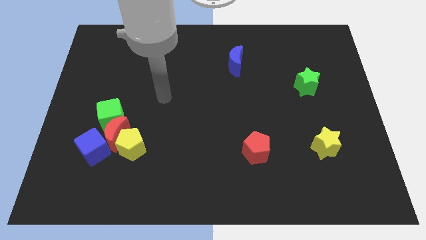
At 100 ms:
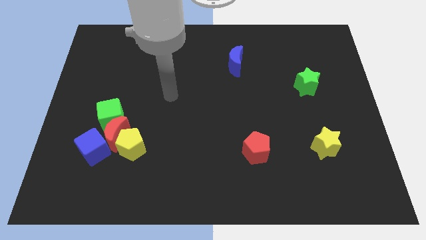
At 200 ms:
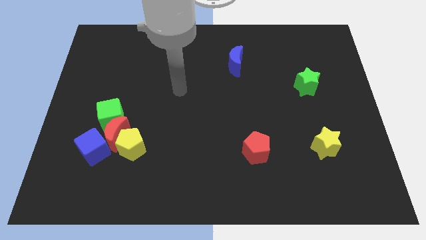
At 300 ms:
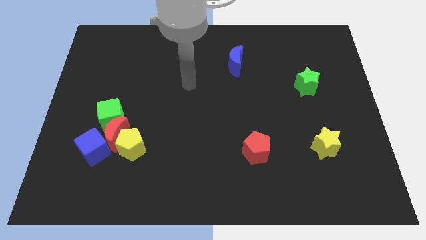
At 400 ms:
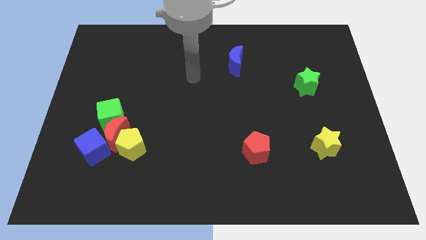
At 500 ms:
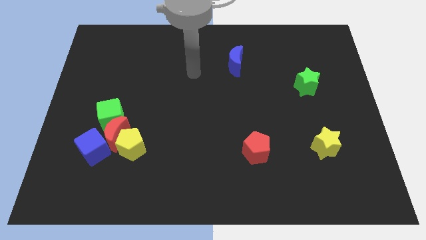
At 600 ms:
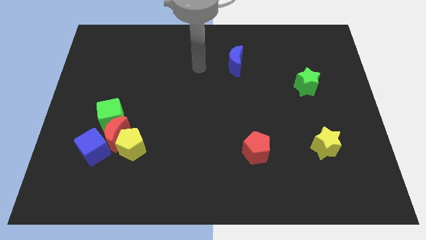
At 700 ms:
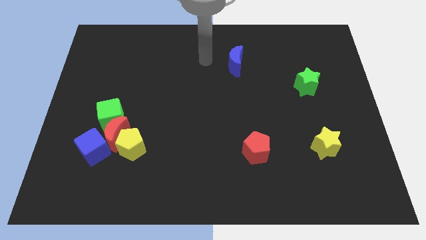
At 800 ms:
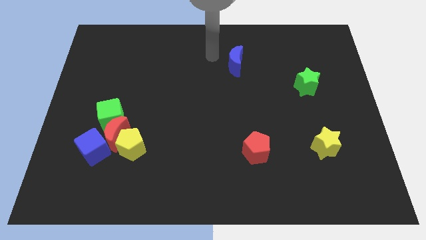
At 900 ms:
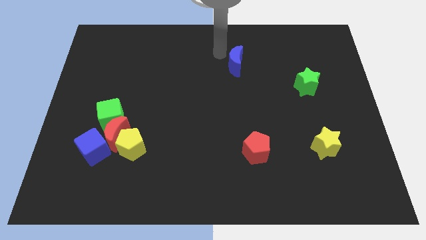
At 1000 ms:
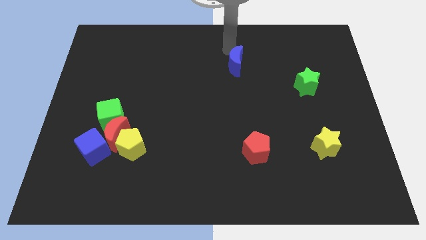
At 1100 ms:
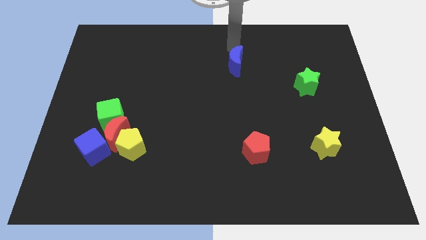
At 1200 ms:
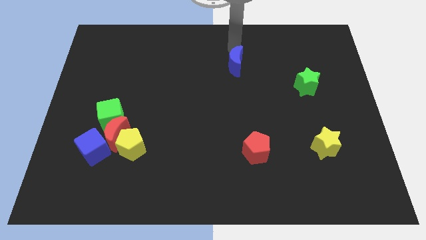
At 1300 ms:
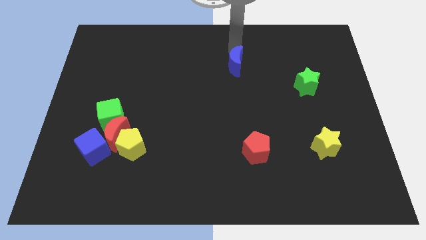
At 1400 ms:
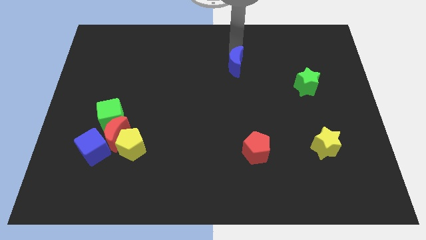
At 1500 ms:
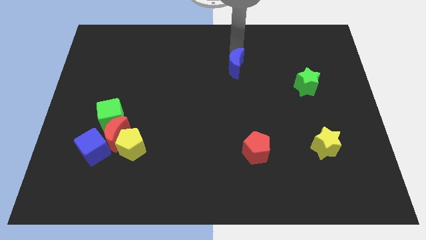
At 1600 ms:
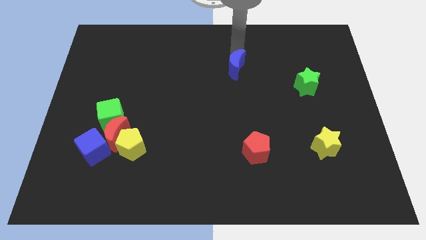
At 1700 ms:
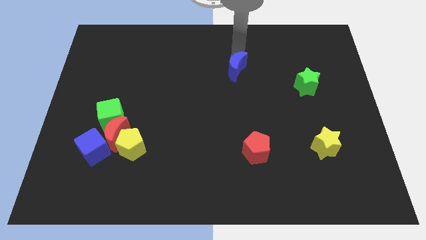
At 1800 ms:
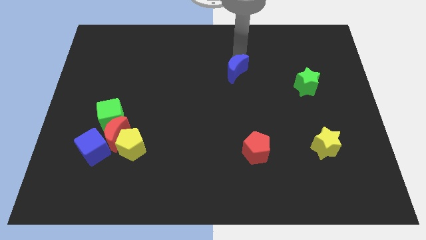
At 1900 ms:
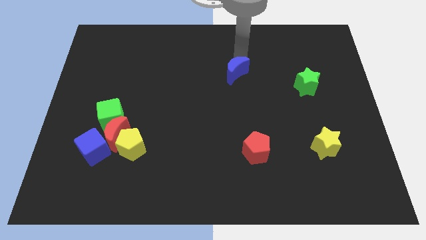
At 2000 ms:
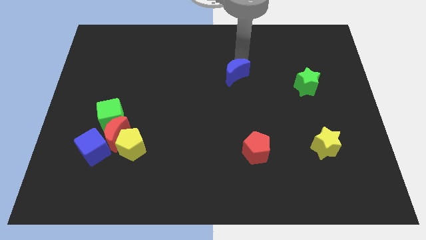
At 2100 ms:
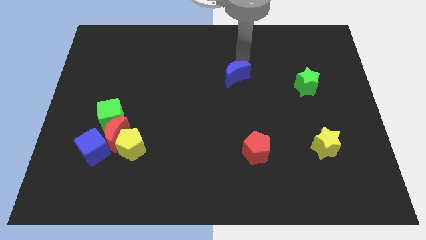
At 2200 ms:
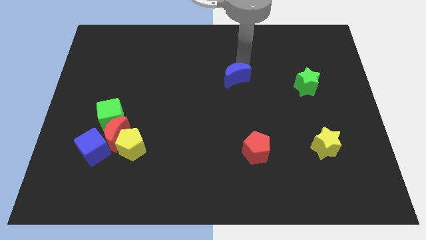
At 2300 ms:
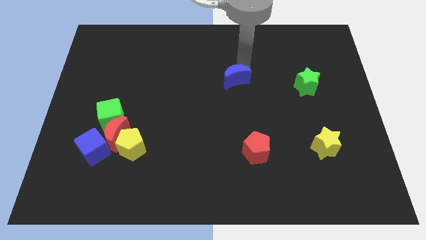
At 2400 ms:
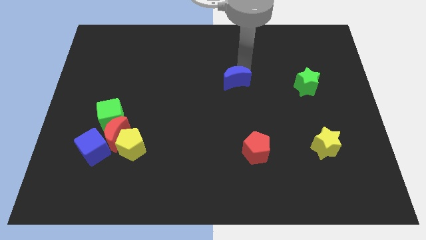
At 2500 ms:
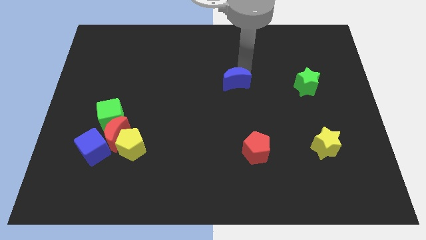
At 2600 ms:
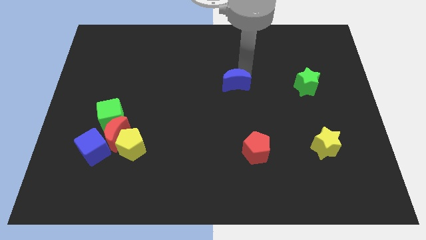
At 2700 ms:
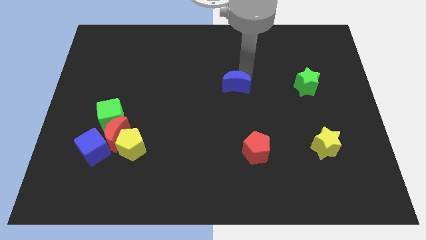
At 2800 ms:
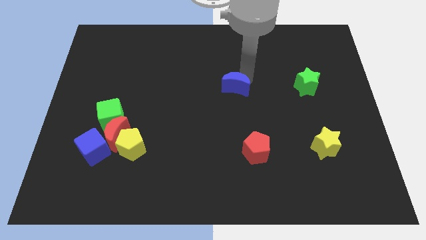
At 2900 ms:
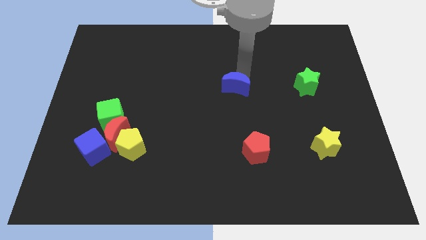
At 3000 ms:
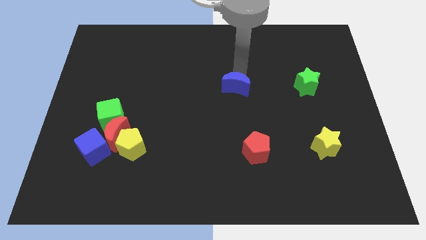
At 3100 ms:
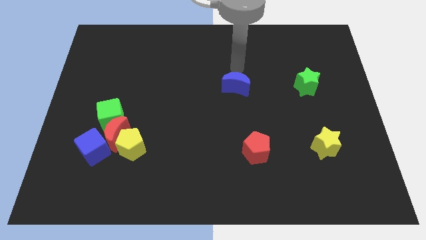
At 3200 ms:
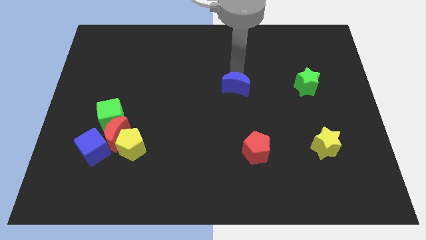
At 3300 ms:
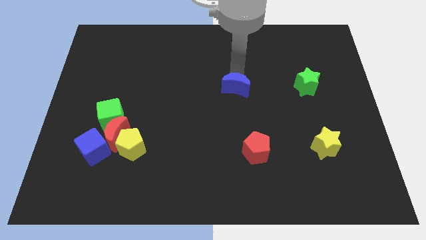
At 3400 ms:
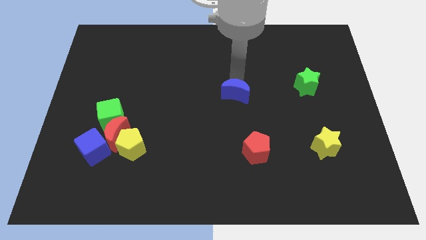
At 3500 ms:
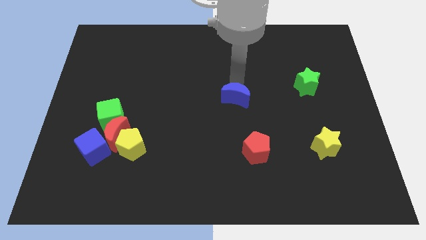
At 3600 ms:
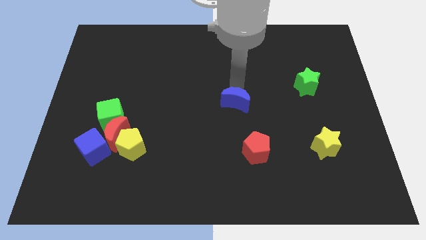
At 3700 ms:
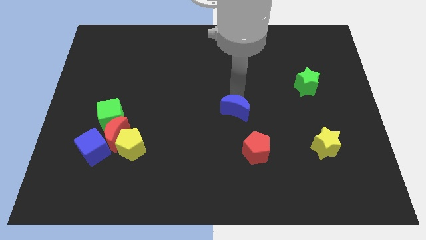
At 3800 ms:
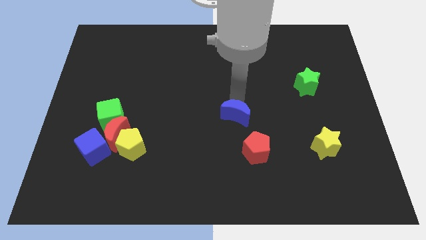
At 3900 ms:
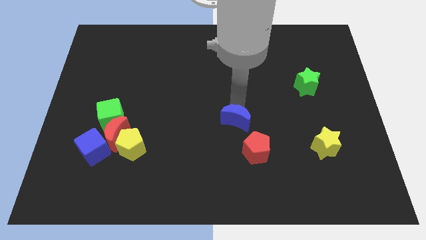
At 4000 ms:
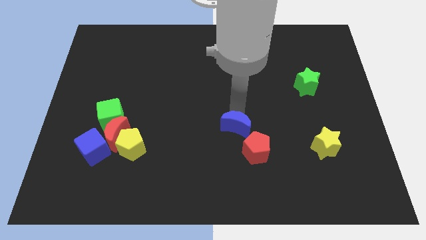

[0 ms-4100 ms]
move the blue moon downwards

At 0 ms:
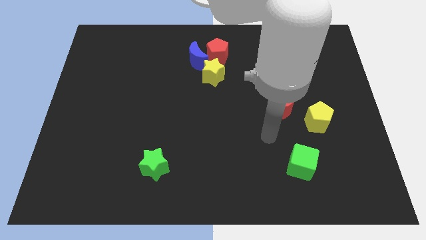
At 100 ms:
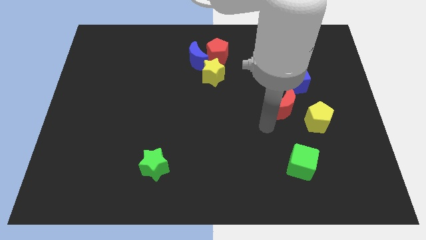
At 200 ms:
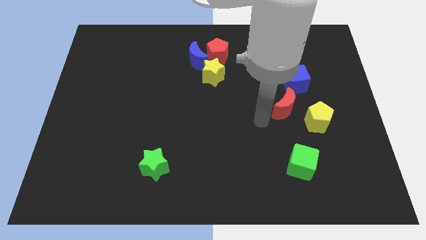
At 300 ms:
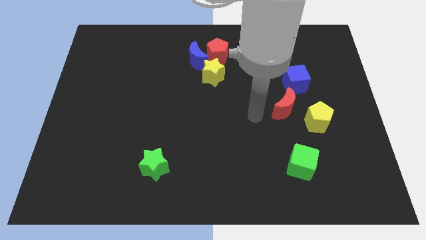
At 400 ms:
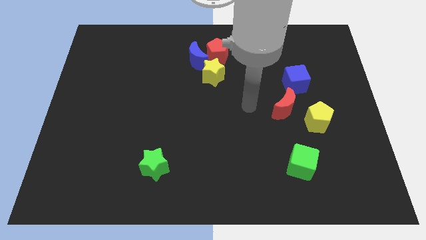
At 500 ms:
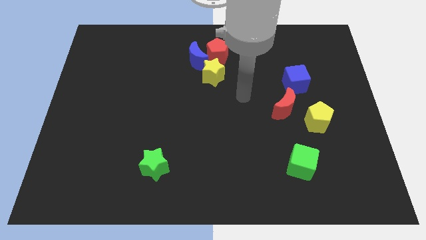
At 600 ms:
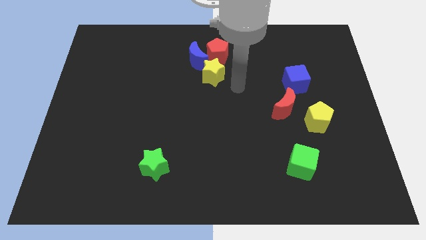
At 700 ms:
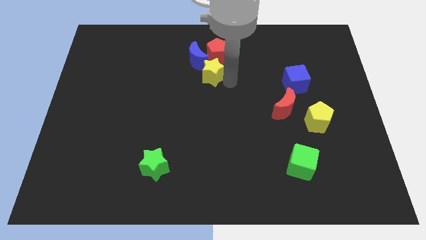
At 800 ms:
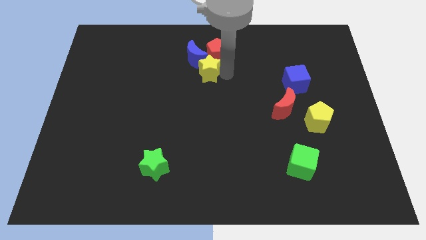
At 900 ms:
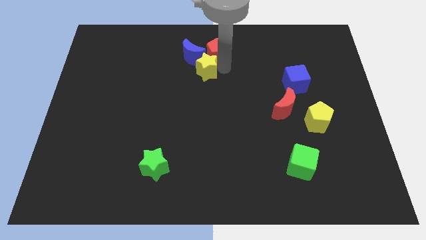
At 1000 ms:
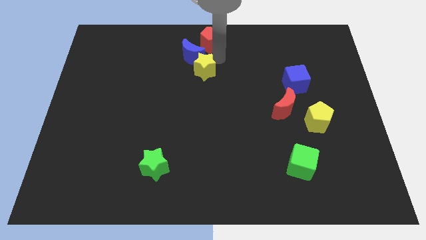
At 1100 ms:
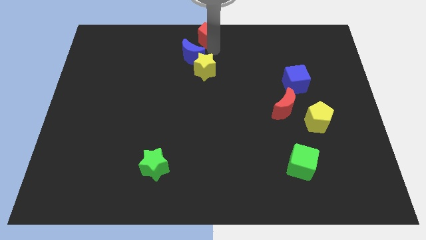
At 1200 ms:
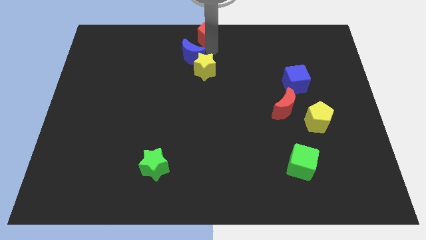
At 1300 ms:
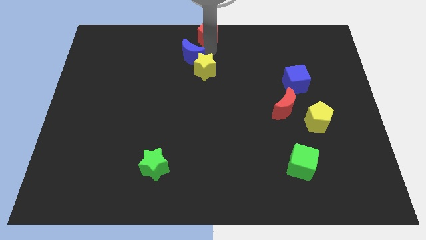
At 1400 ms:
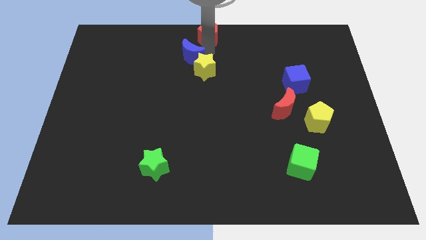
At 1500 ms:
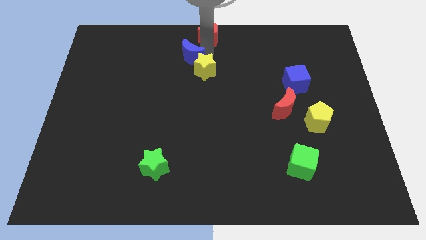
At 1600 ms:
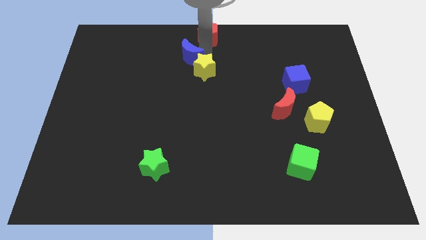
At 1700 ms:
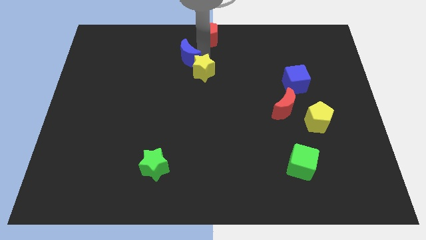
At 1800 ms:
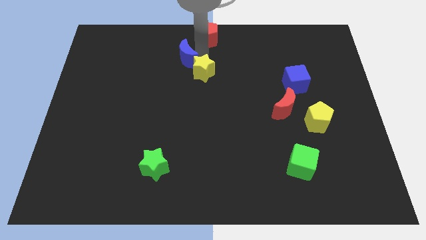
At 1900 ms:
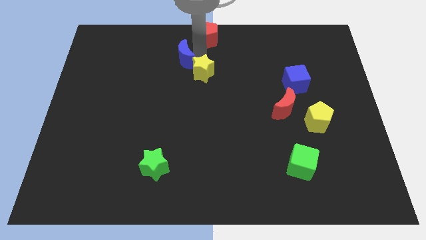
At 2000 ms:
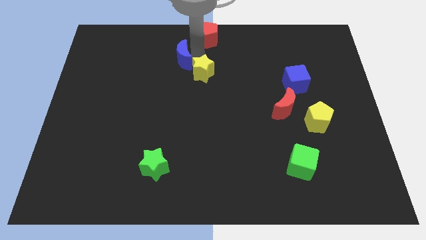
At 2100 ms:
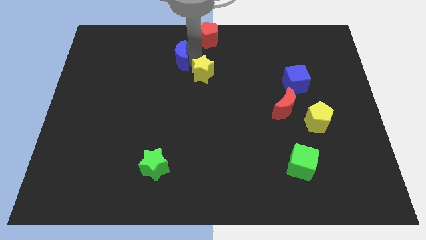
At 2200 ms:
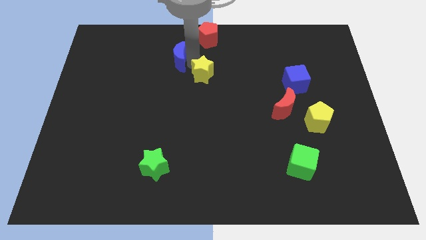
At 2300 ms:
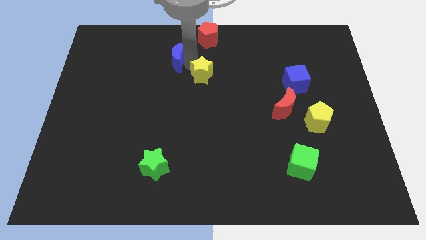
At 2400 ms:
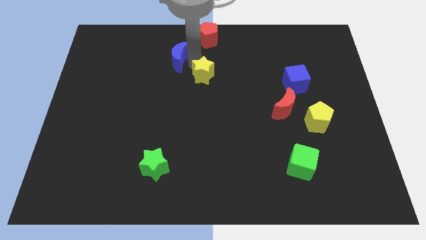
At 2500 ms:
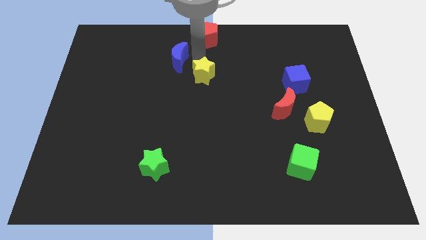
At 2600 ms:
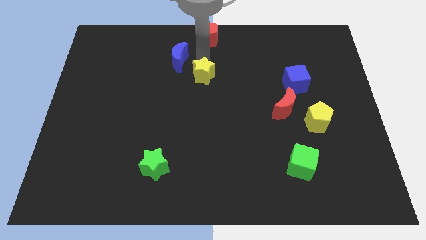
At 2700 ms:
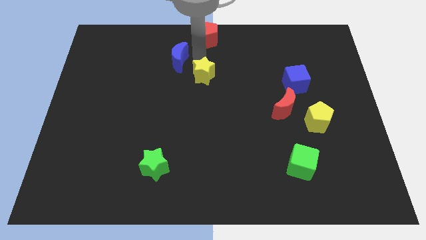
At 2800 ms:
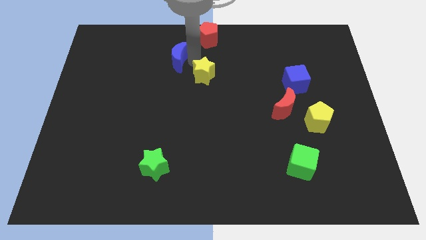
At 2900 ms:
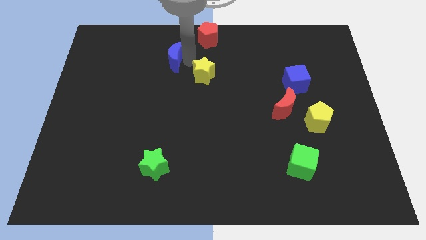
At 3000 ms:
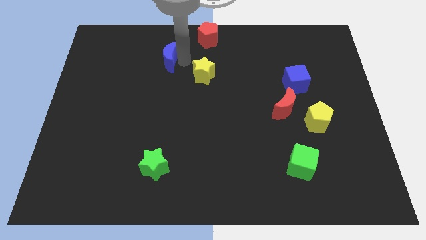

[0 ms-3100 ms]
move the blue moon to the left a little

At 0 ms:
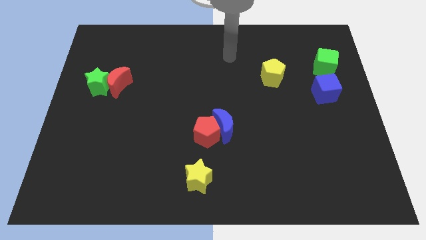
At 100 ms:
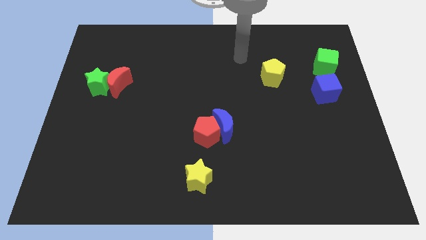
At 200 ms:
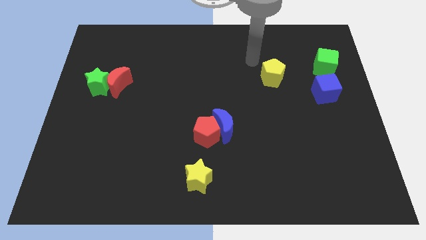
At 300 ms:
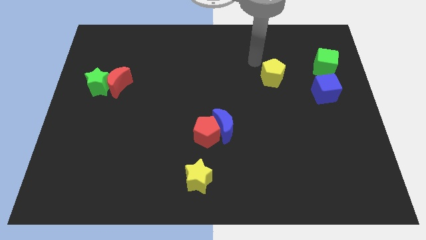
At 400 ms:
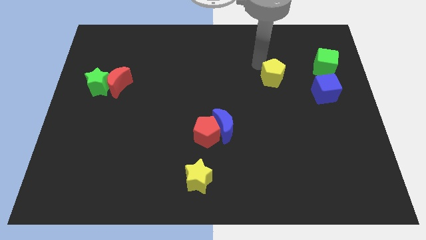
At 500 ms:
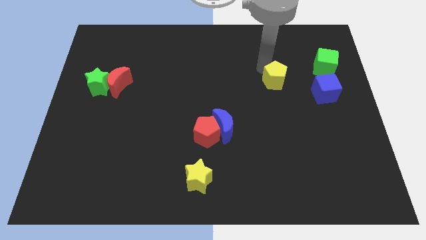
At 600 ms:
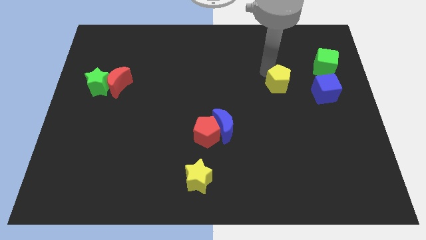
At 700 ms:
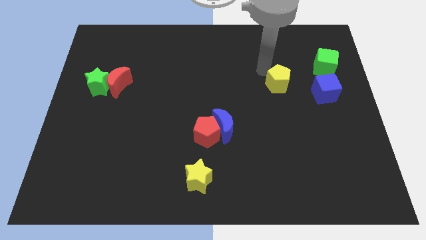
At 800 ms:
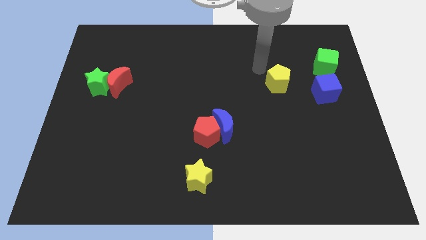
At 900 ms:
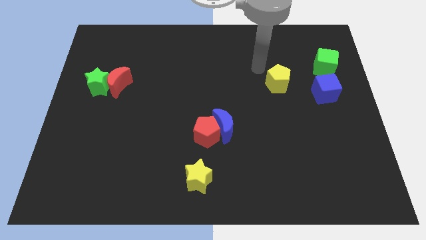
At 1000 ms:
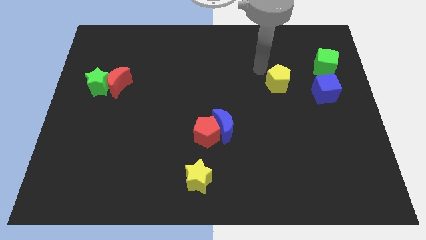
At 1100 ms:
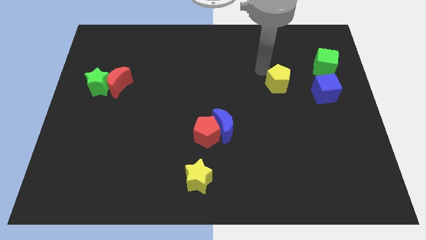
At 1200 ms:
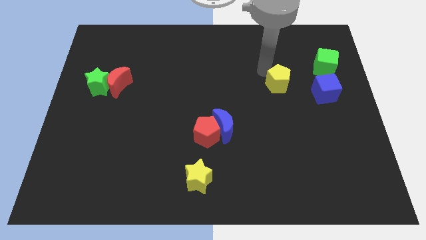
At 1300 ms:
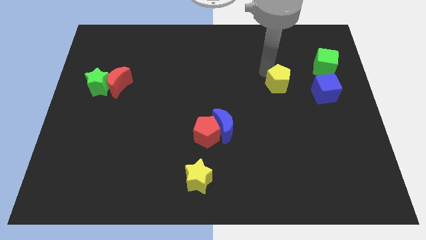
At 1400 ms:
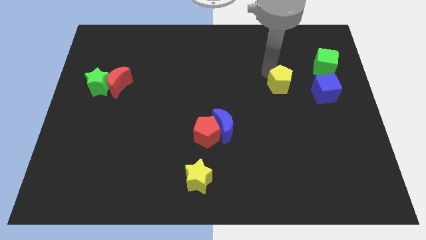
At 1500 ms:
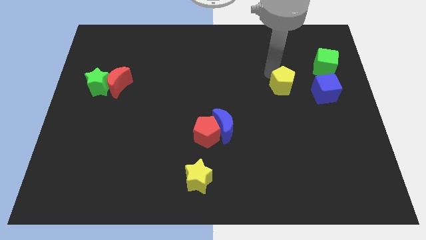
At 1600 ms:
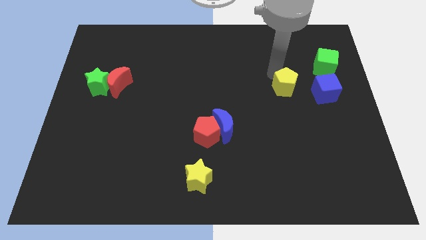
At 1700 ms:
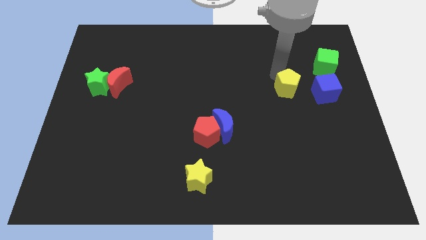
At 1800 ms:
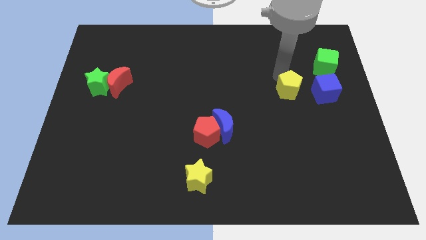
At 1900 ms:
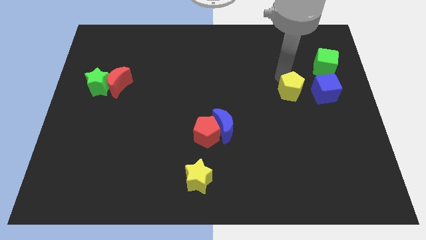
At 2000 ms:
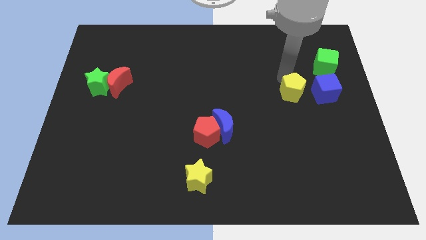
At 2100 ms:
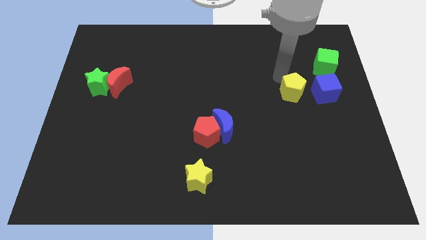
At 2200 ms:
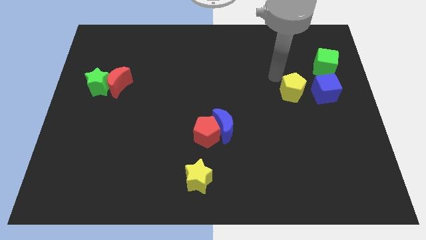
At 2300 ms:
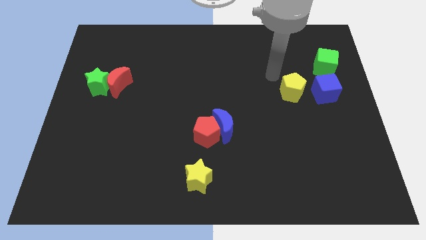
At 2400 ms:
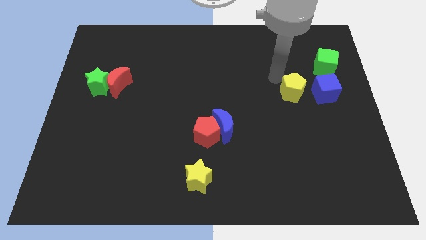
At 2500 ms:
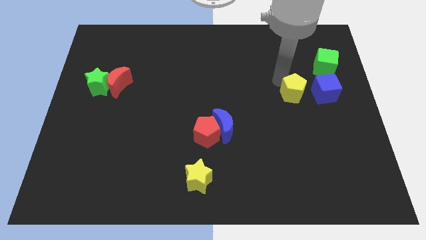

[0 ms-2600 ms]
push the yellow pentagon diagonally down and to the right a little bit
